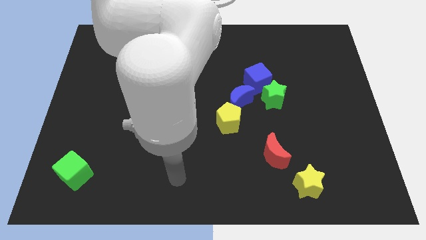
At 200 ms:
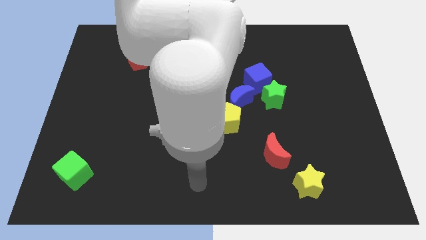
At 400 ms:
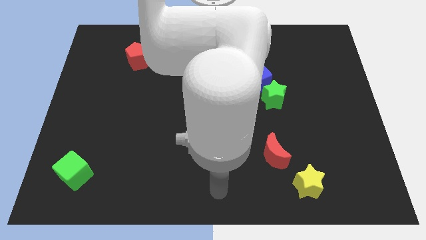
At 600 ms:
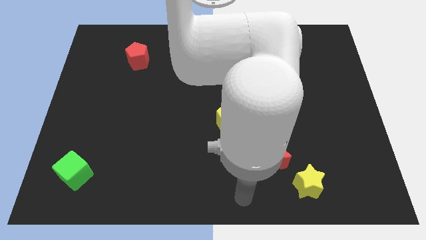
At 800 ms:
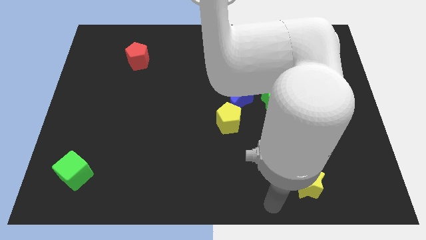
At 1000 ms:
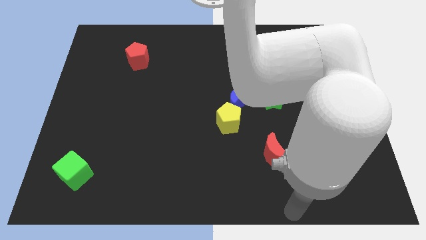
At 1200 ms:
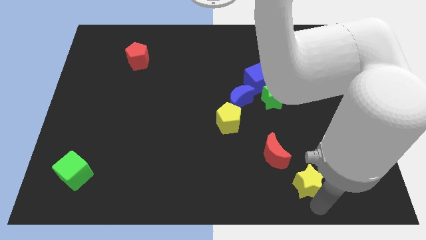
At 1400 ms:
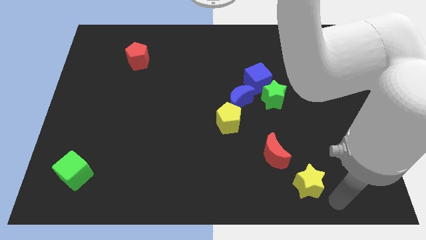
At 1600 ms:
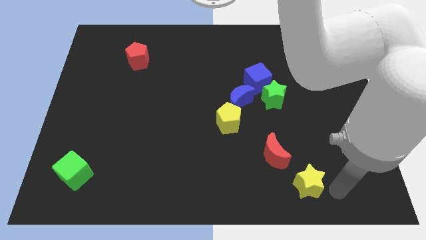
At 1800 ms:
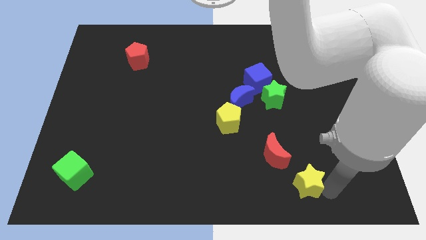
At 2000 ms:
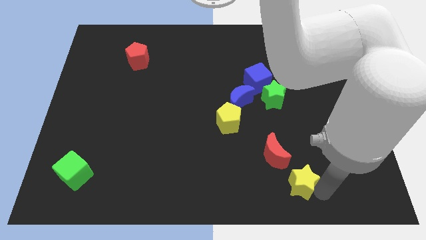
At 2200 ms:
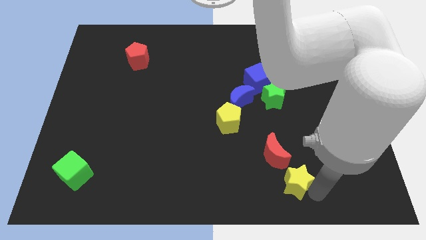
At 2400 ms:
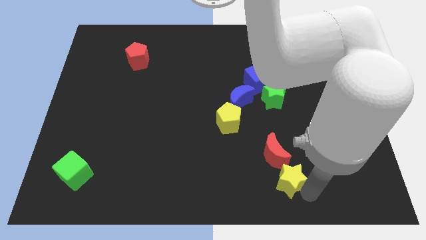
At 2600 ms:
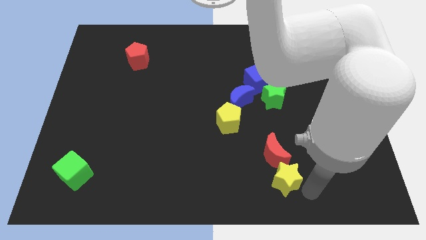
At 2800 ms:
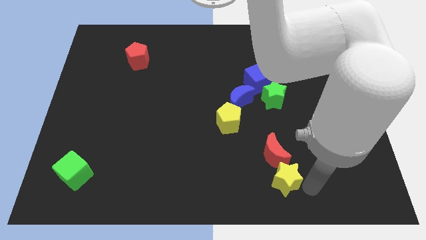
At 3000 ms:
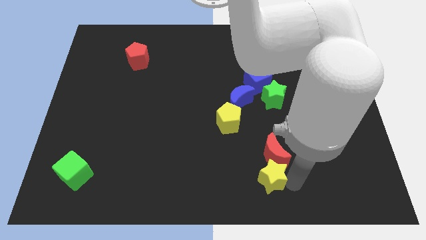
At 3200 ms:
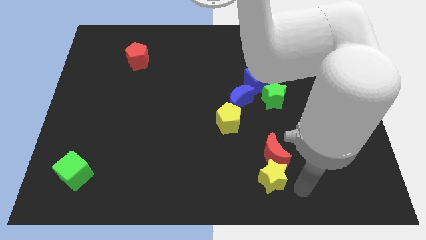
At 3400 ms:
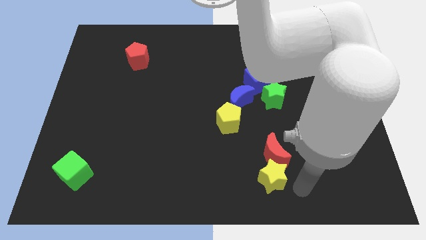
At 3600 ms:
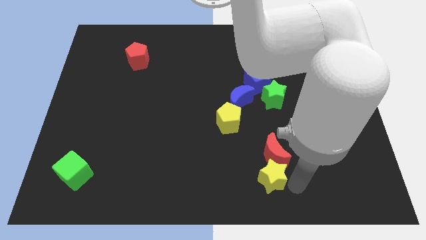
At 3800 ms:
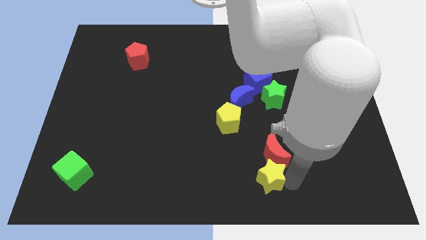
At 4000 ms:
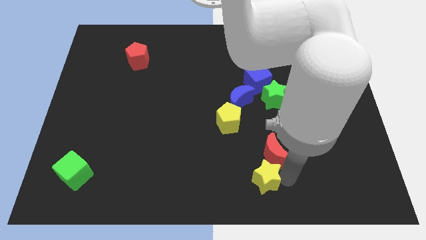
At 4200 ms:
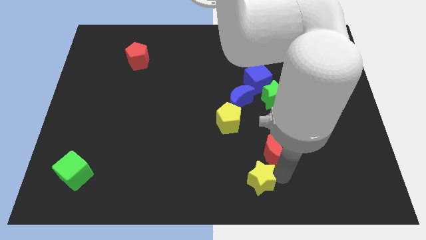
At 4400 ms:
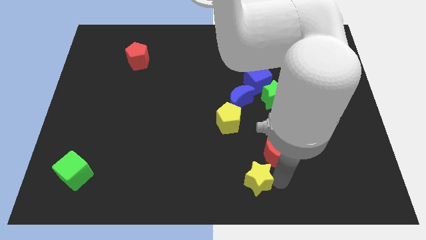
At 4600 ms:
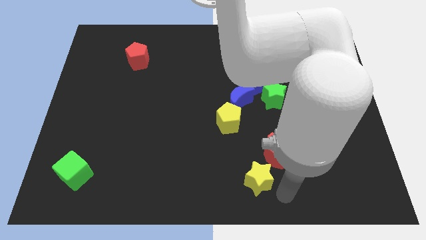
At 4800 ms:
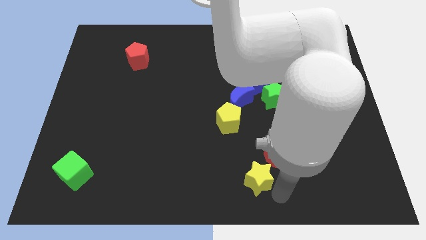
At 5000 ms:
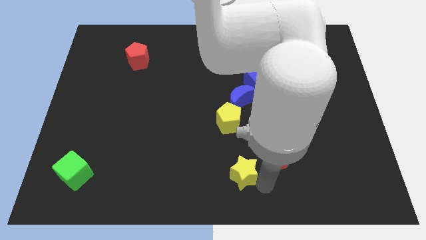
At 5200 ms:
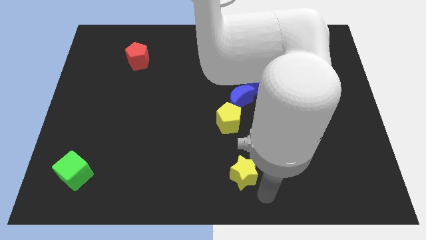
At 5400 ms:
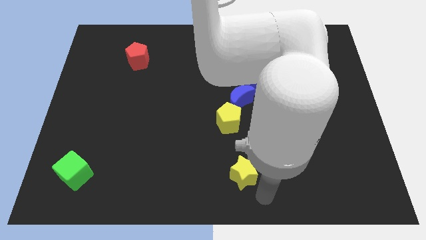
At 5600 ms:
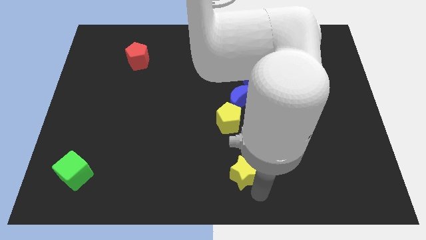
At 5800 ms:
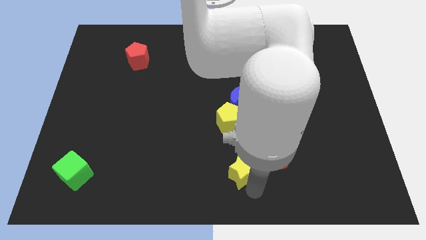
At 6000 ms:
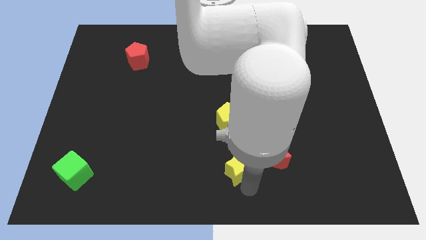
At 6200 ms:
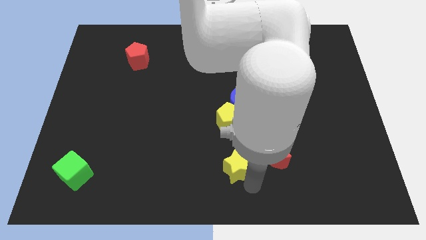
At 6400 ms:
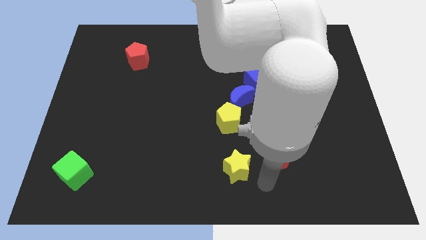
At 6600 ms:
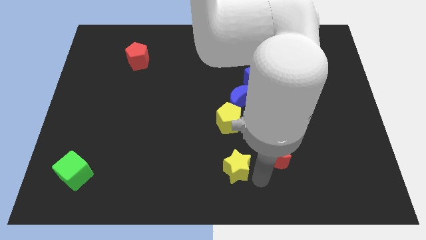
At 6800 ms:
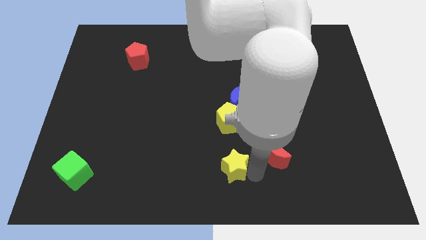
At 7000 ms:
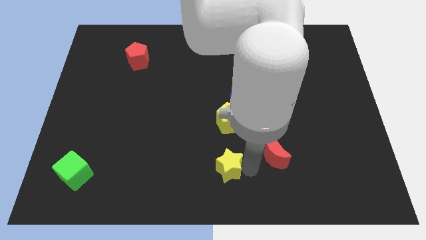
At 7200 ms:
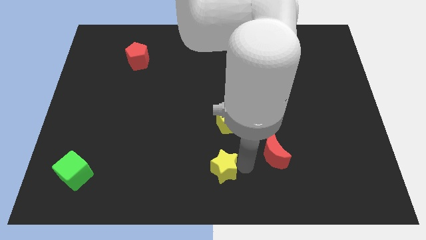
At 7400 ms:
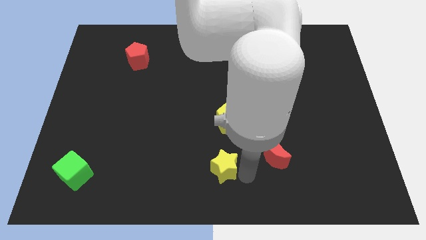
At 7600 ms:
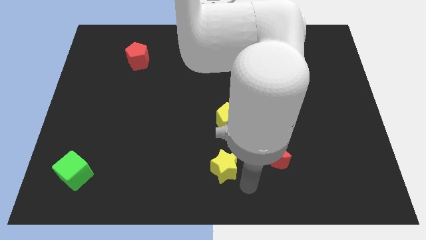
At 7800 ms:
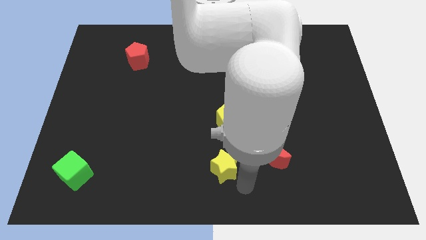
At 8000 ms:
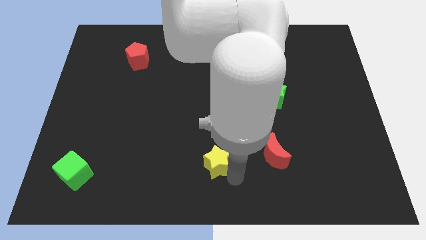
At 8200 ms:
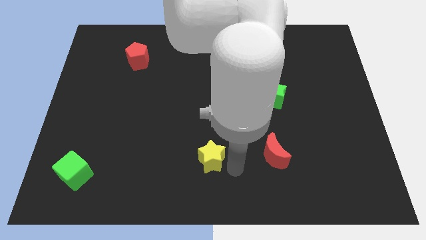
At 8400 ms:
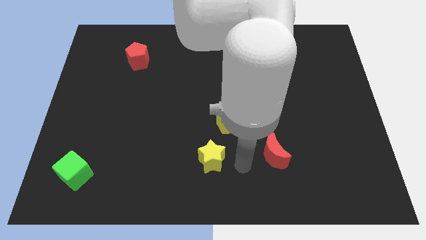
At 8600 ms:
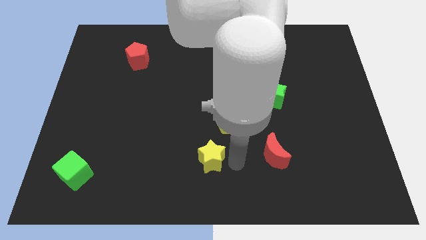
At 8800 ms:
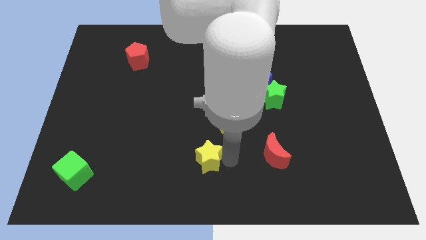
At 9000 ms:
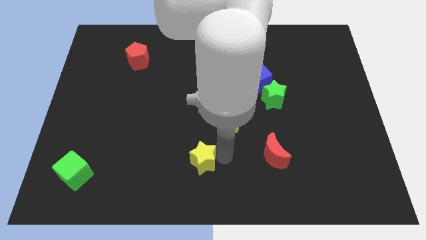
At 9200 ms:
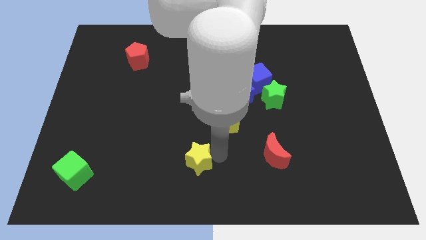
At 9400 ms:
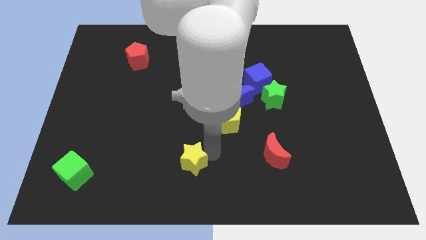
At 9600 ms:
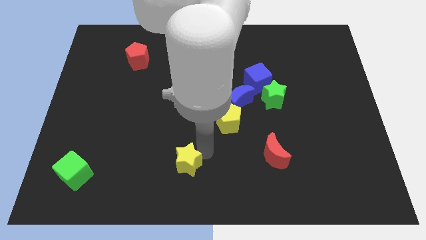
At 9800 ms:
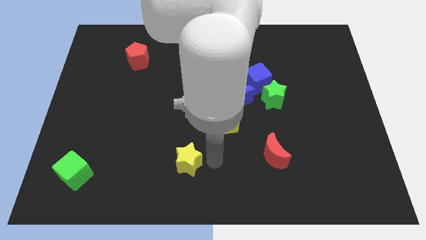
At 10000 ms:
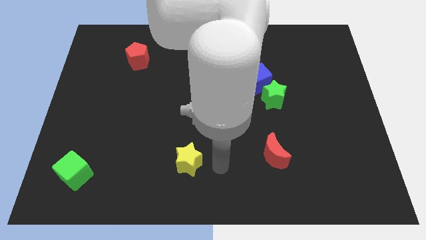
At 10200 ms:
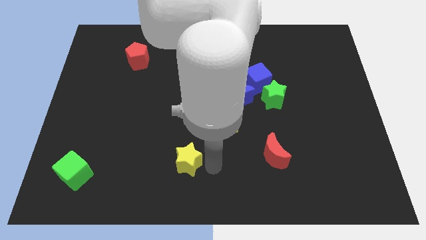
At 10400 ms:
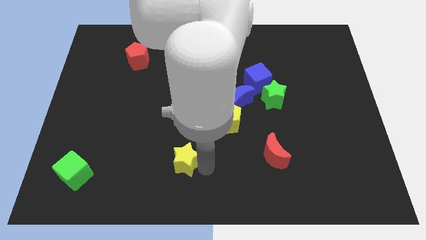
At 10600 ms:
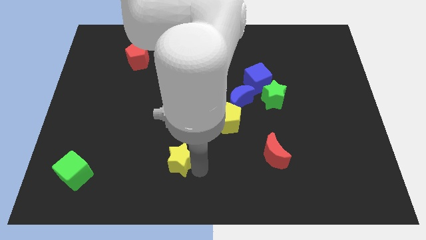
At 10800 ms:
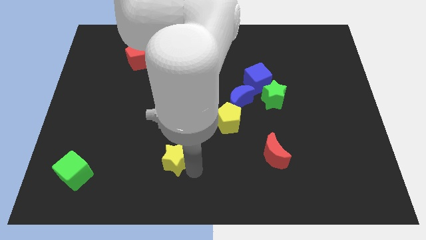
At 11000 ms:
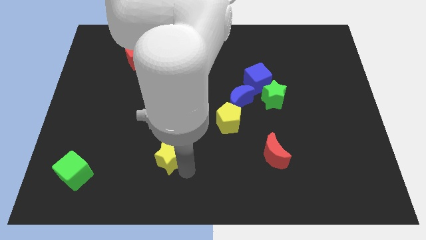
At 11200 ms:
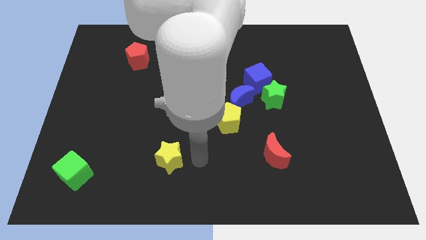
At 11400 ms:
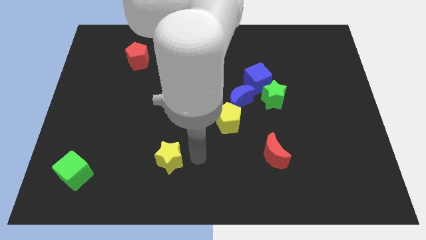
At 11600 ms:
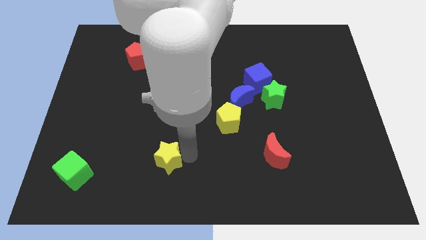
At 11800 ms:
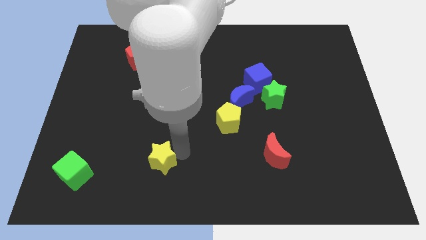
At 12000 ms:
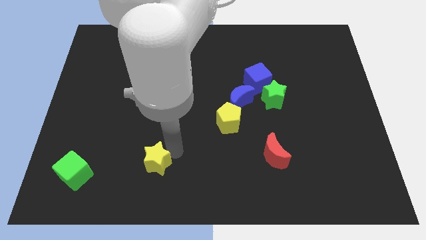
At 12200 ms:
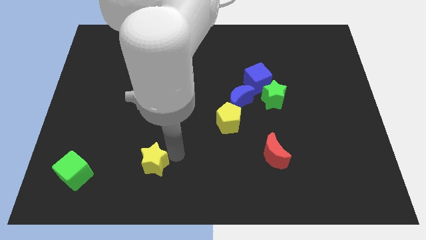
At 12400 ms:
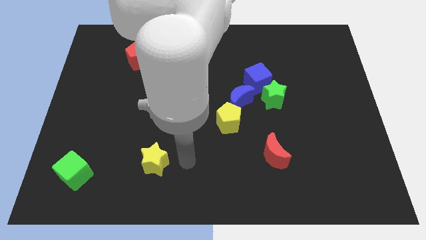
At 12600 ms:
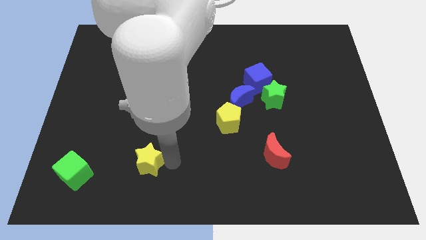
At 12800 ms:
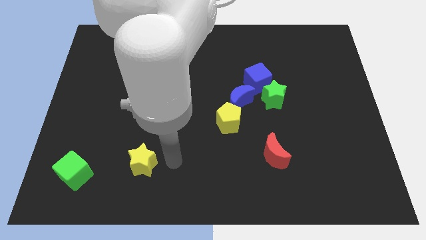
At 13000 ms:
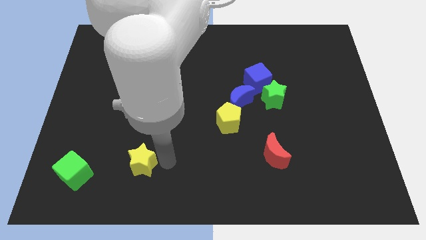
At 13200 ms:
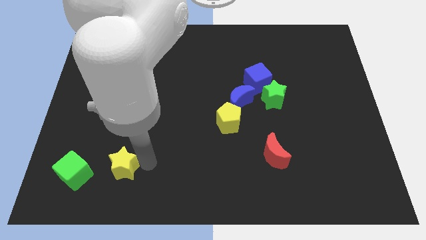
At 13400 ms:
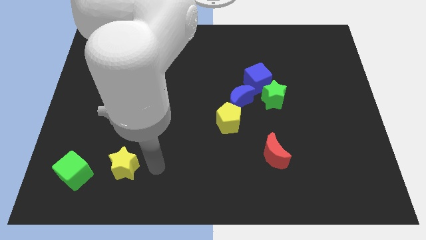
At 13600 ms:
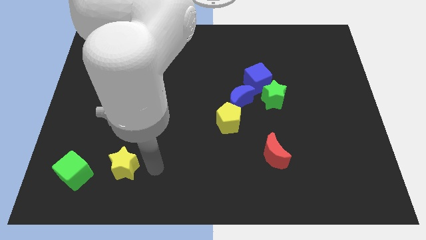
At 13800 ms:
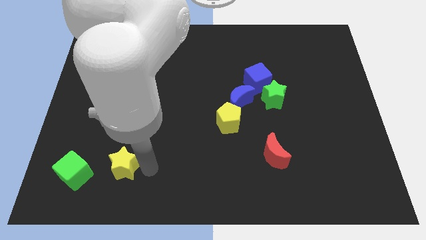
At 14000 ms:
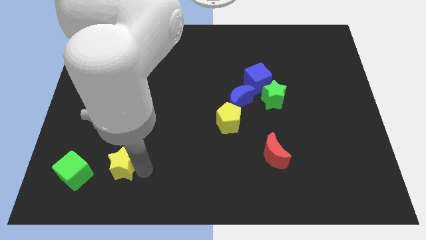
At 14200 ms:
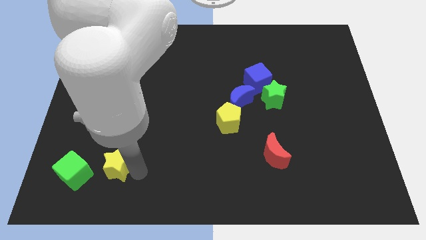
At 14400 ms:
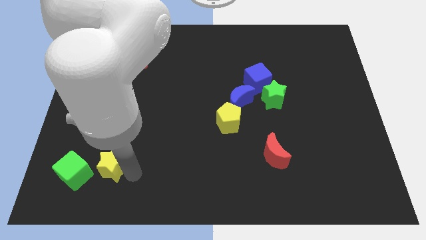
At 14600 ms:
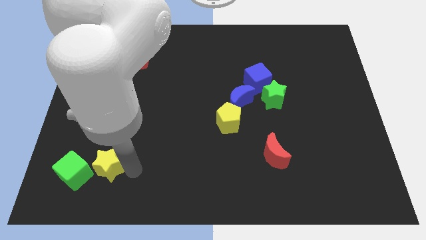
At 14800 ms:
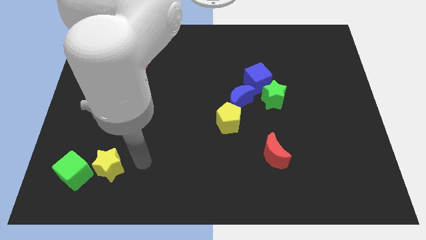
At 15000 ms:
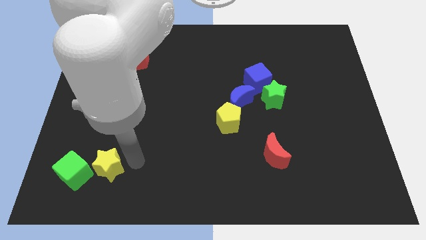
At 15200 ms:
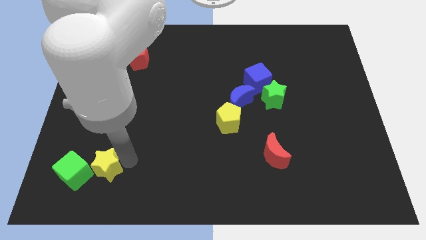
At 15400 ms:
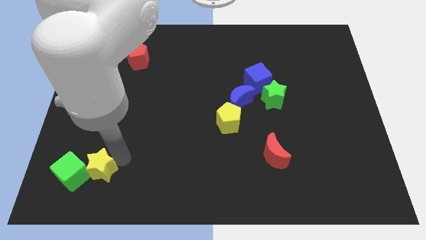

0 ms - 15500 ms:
push the yellow star towards the green cube
